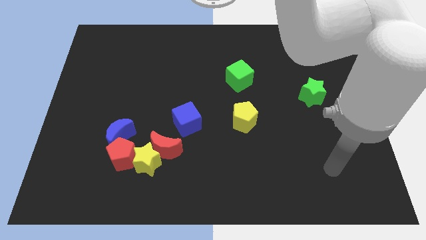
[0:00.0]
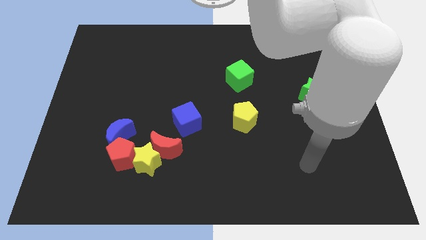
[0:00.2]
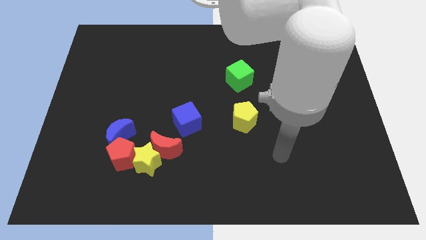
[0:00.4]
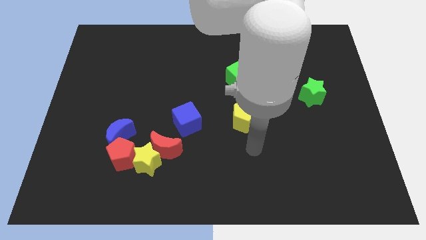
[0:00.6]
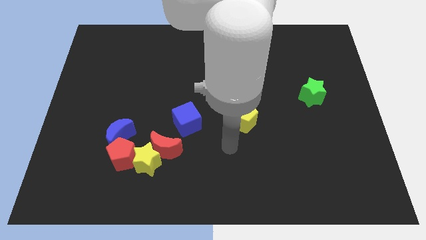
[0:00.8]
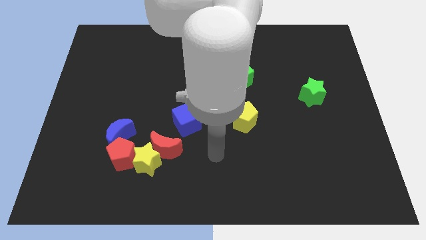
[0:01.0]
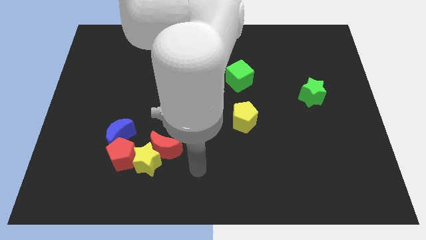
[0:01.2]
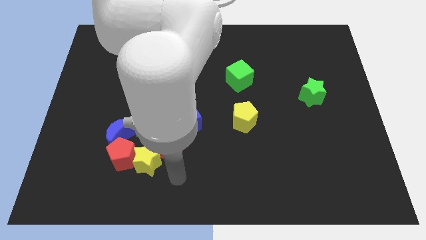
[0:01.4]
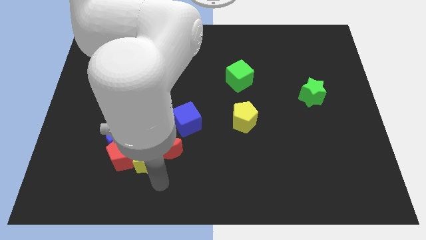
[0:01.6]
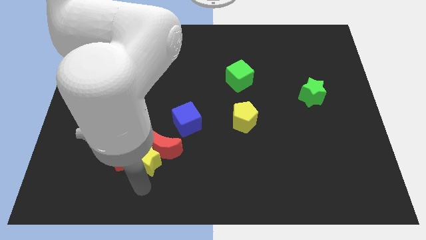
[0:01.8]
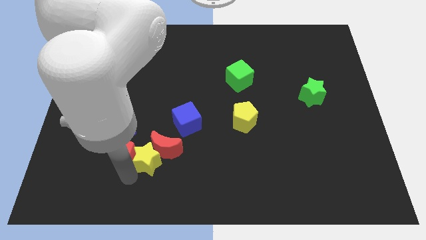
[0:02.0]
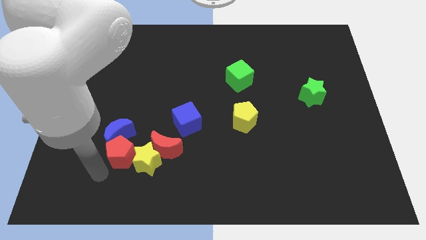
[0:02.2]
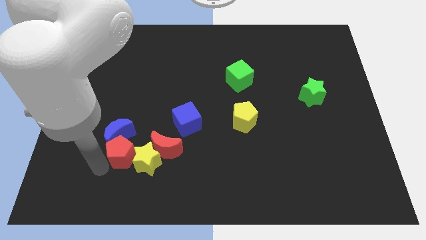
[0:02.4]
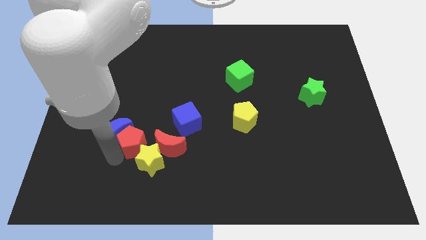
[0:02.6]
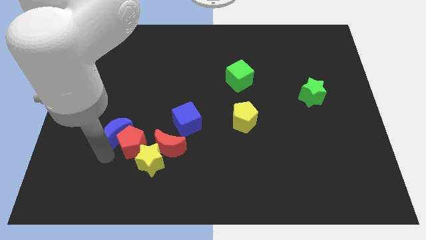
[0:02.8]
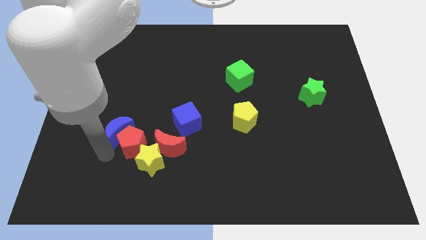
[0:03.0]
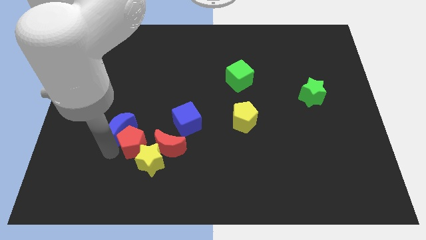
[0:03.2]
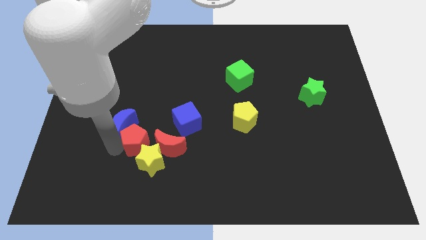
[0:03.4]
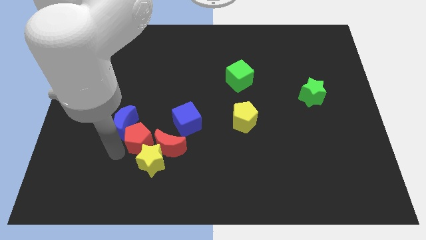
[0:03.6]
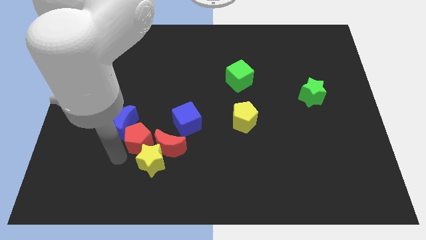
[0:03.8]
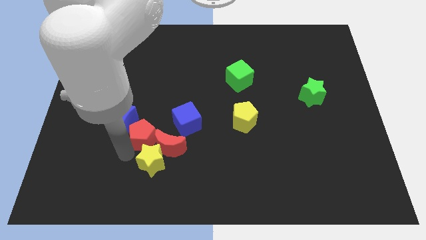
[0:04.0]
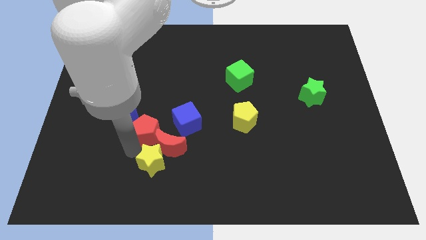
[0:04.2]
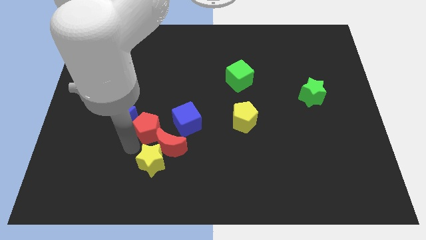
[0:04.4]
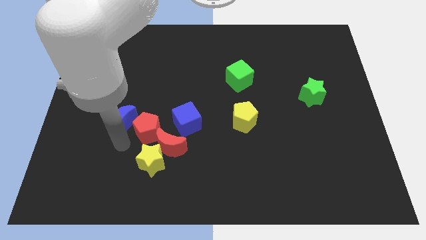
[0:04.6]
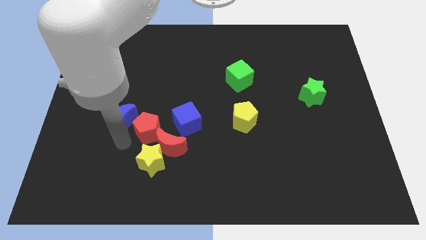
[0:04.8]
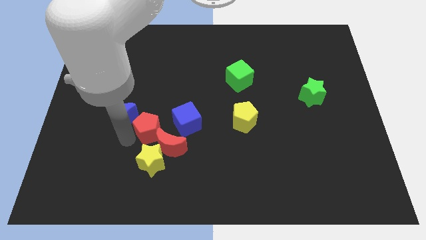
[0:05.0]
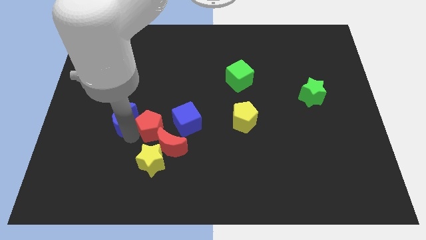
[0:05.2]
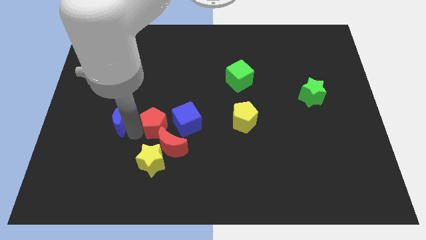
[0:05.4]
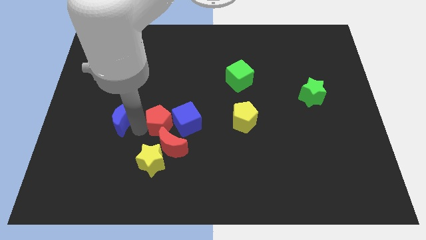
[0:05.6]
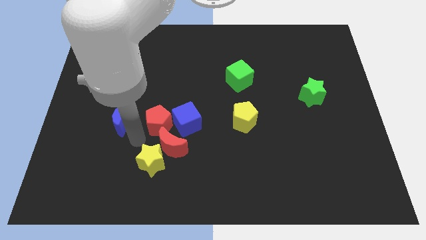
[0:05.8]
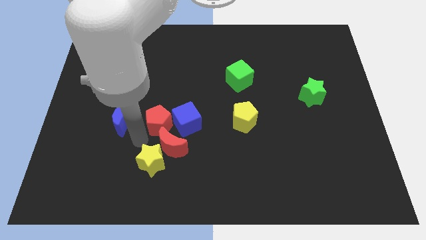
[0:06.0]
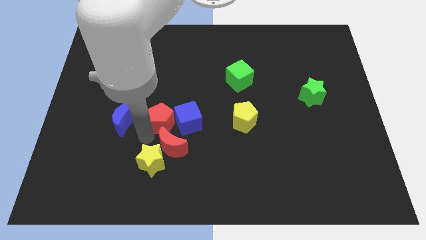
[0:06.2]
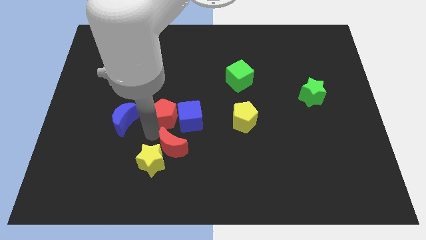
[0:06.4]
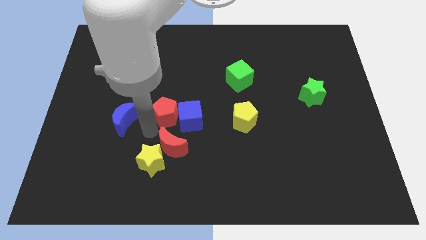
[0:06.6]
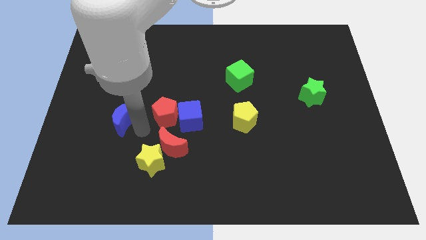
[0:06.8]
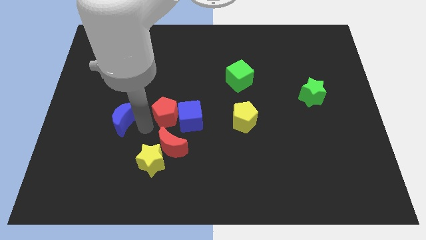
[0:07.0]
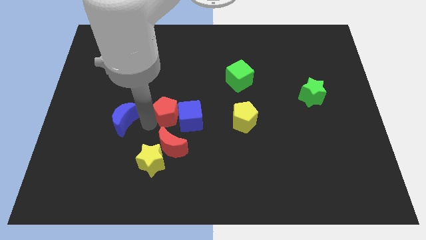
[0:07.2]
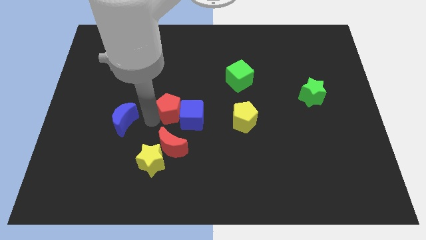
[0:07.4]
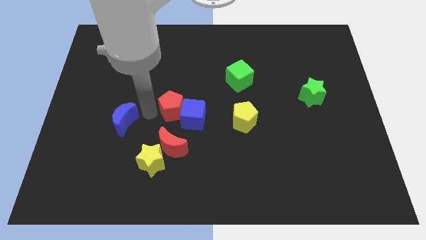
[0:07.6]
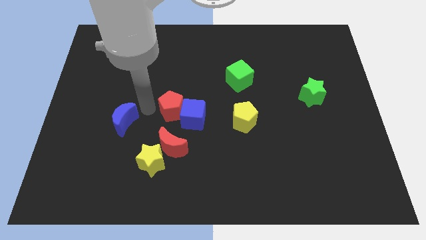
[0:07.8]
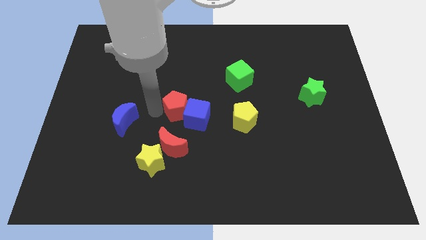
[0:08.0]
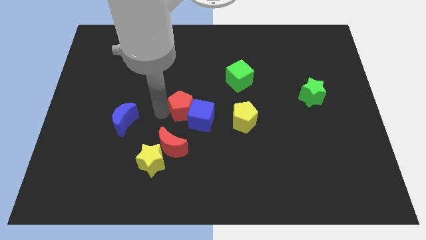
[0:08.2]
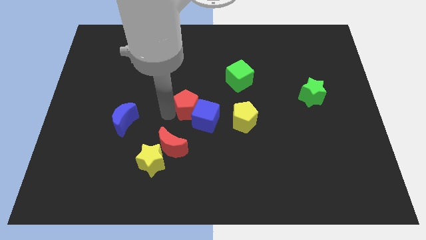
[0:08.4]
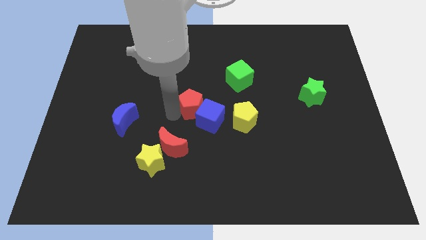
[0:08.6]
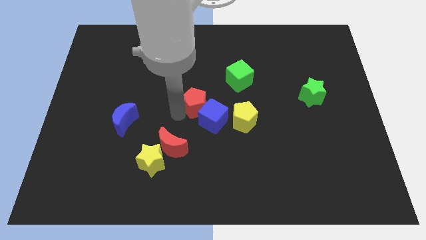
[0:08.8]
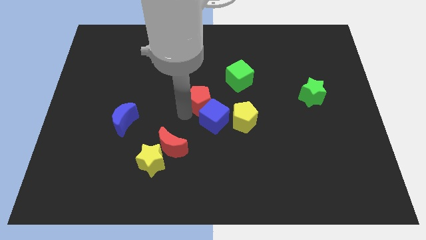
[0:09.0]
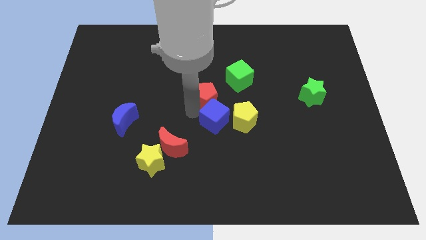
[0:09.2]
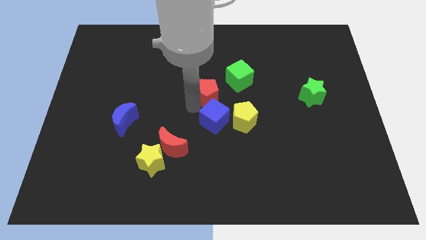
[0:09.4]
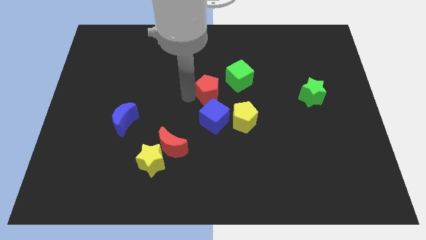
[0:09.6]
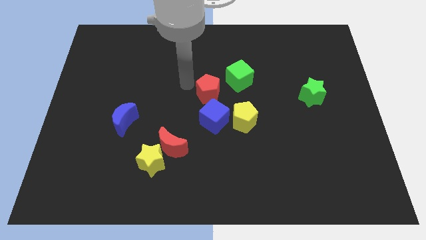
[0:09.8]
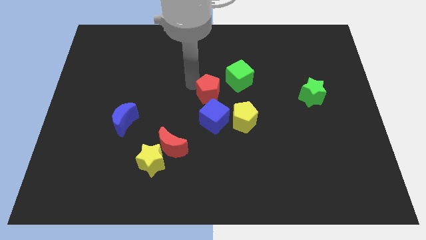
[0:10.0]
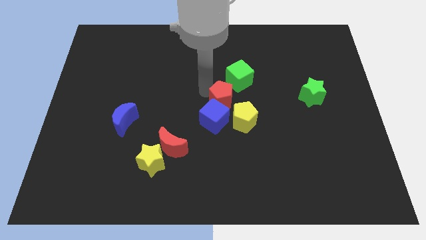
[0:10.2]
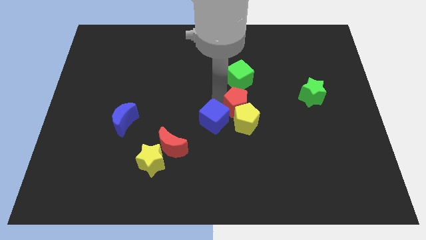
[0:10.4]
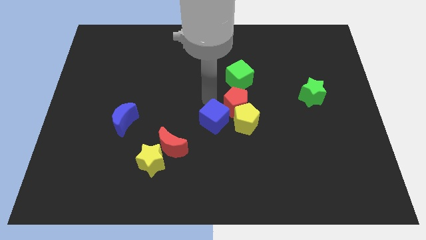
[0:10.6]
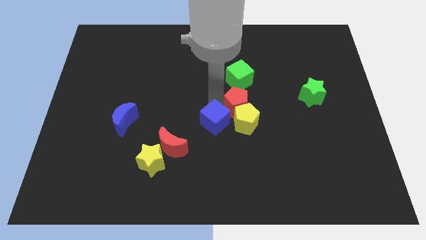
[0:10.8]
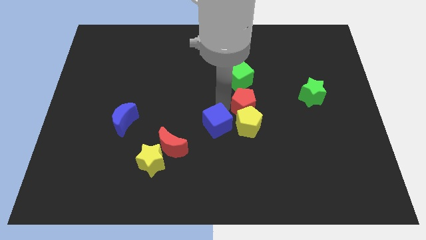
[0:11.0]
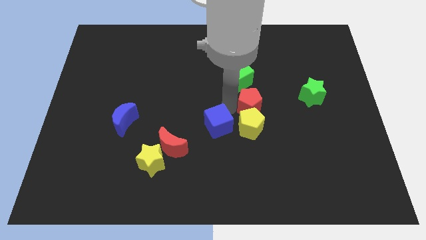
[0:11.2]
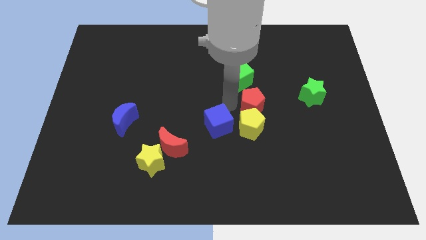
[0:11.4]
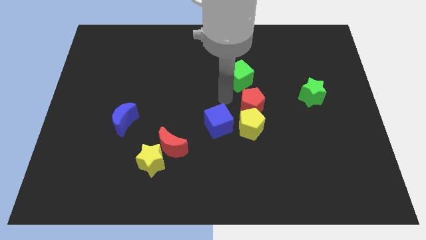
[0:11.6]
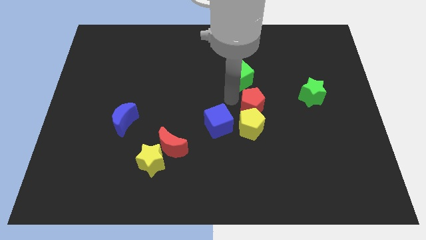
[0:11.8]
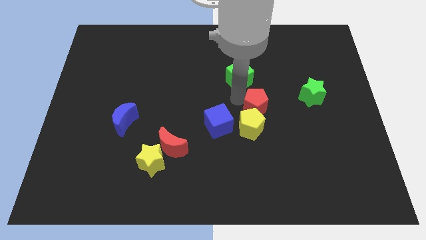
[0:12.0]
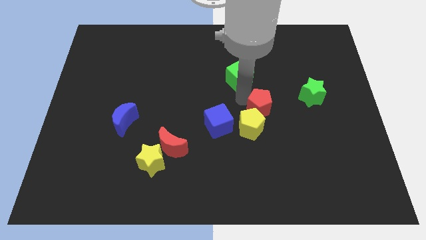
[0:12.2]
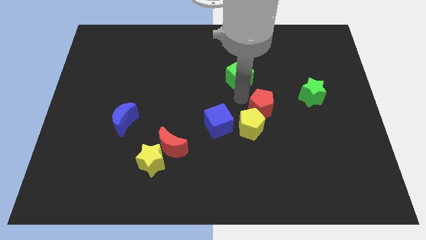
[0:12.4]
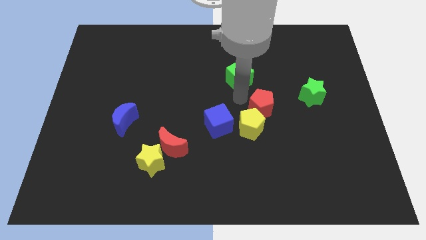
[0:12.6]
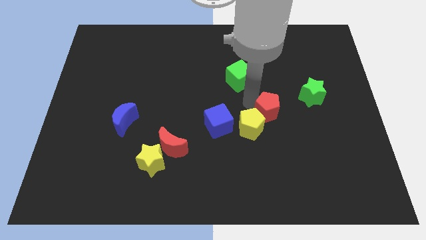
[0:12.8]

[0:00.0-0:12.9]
push the red pentagon to the right of the yellow pentagon

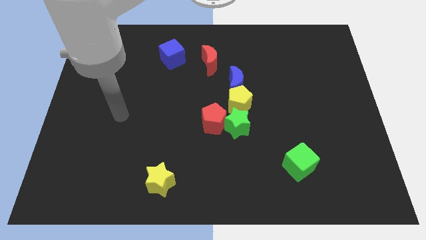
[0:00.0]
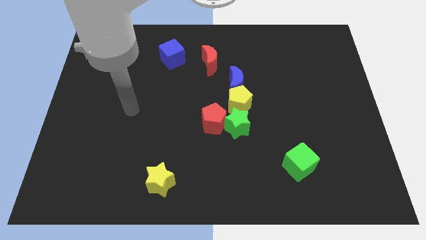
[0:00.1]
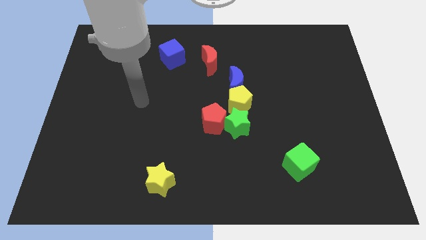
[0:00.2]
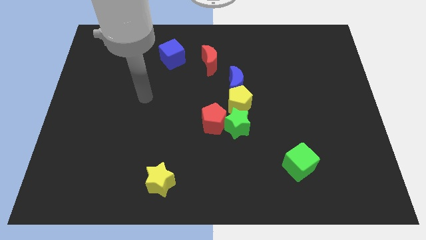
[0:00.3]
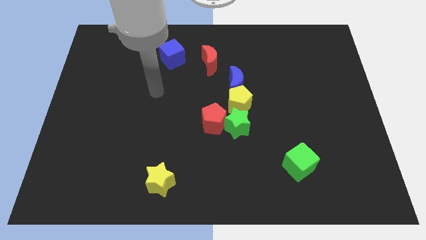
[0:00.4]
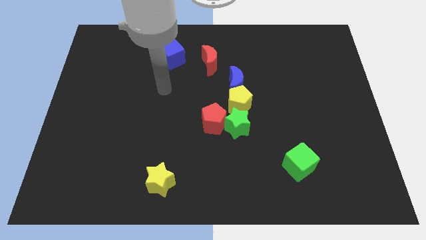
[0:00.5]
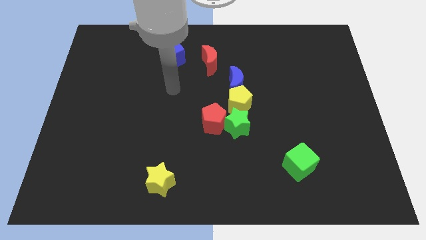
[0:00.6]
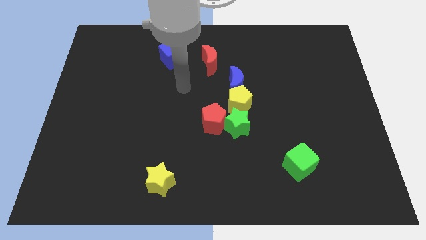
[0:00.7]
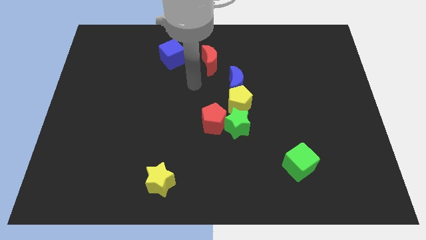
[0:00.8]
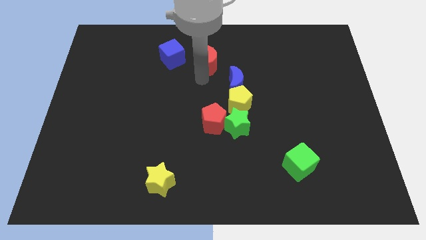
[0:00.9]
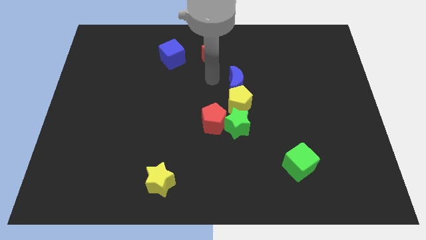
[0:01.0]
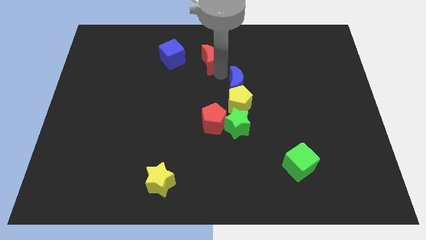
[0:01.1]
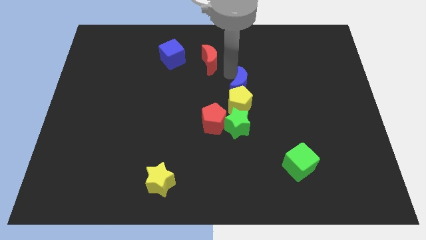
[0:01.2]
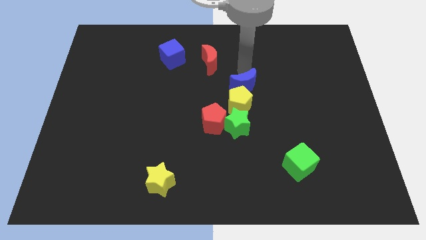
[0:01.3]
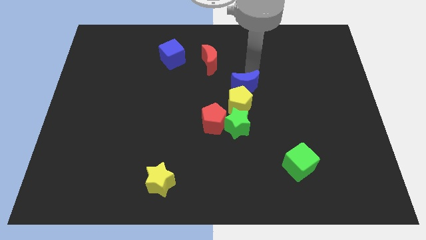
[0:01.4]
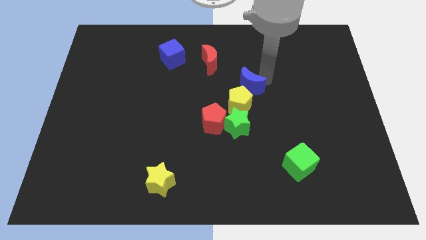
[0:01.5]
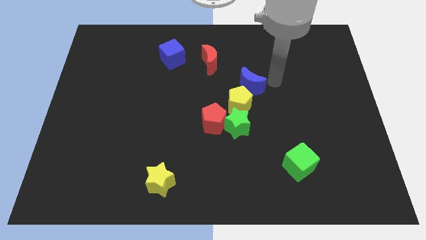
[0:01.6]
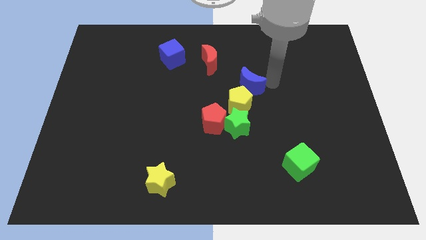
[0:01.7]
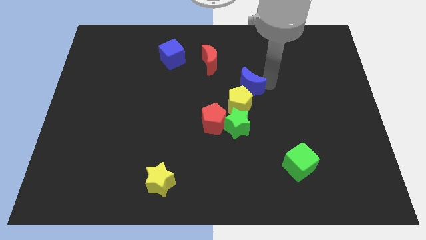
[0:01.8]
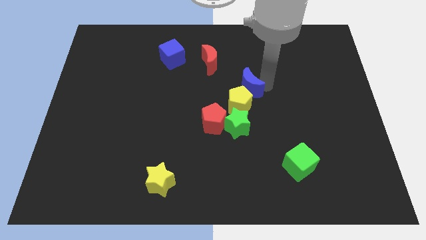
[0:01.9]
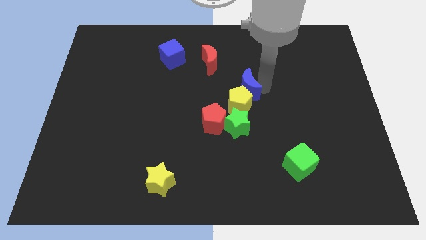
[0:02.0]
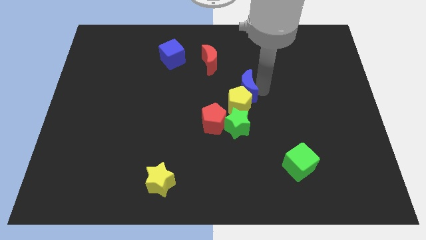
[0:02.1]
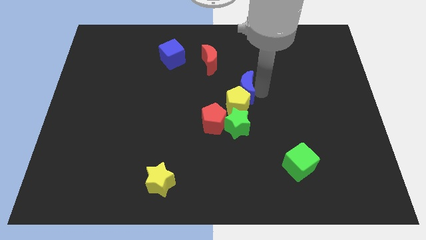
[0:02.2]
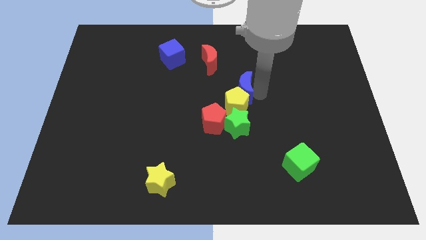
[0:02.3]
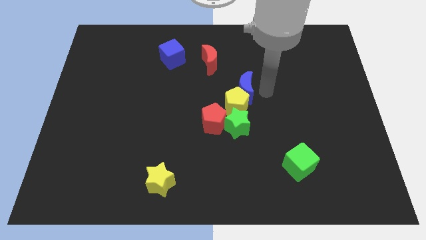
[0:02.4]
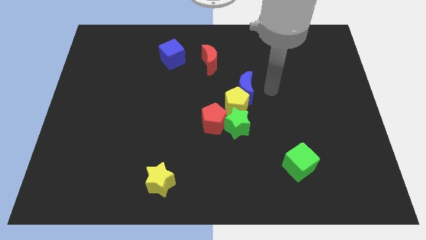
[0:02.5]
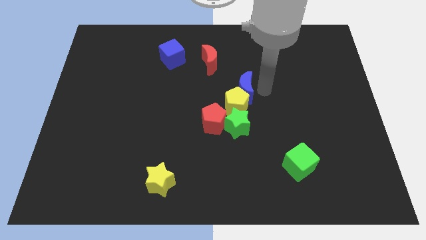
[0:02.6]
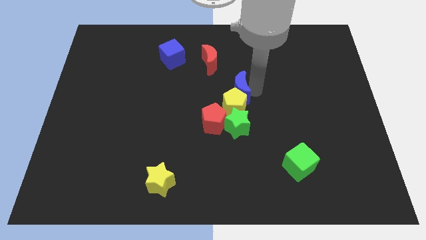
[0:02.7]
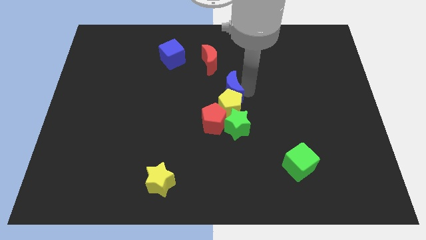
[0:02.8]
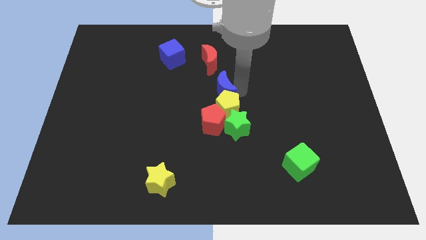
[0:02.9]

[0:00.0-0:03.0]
move the blue moon below the red moon
